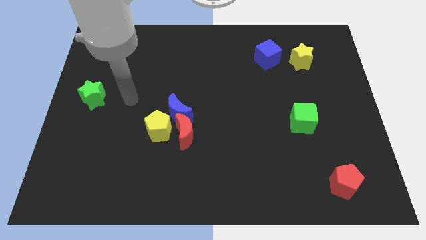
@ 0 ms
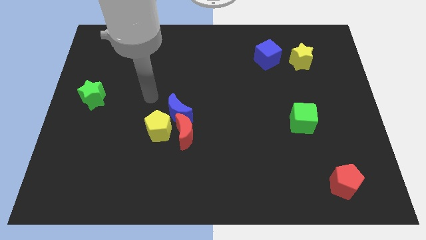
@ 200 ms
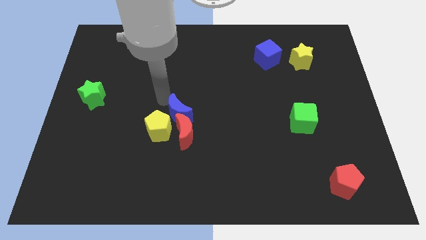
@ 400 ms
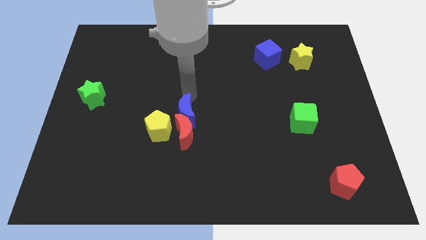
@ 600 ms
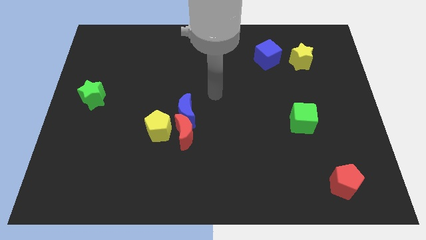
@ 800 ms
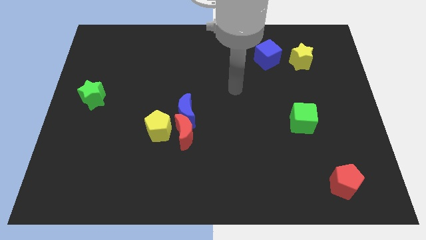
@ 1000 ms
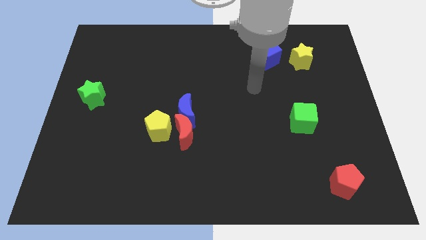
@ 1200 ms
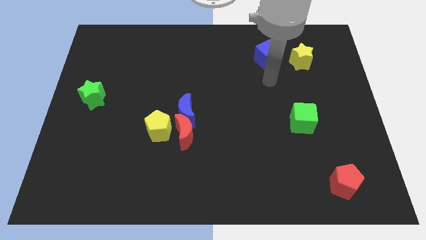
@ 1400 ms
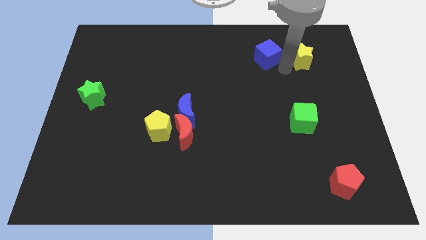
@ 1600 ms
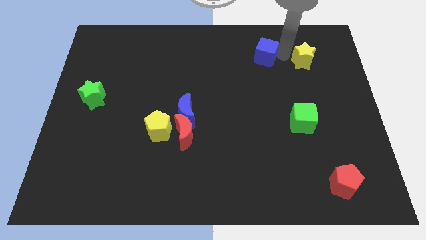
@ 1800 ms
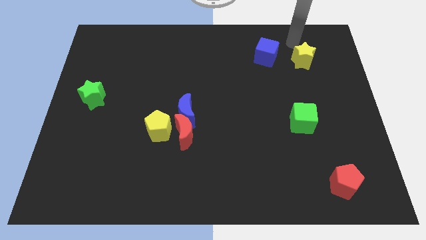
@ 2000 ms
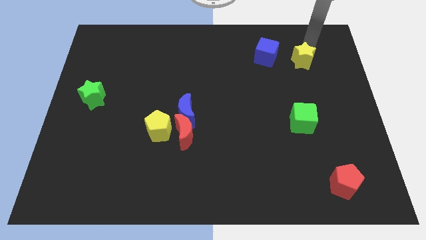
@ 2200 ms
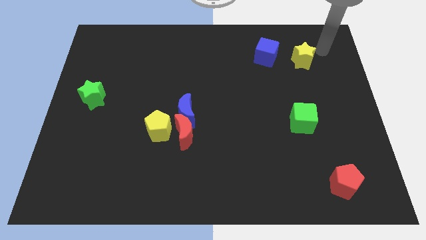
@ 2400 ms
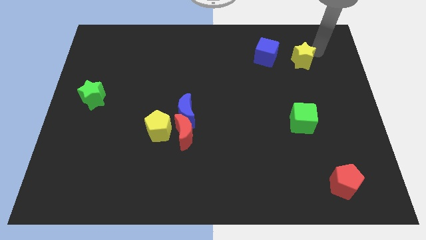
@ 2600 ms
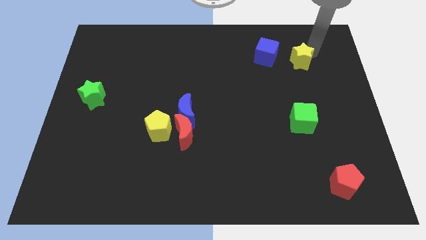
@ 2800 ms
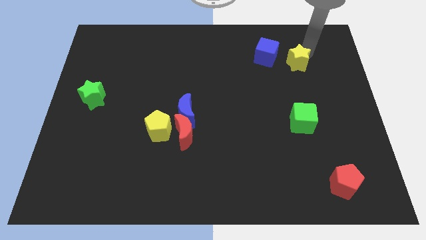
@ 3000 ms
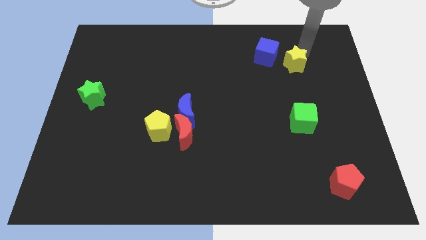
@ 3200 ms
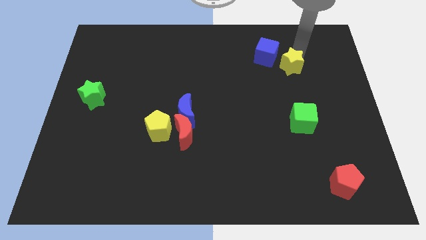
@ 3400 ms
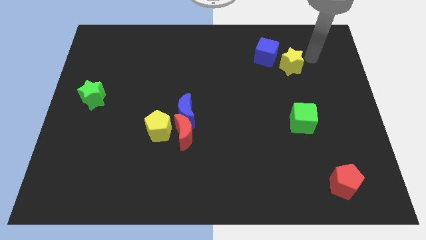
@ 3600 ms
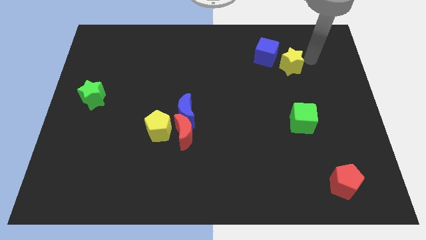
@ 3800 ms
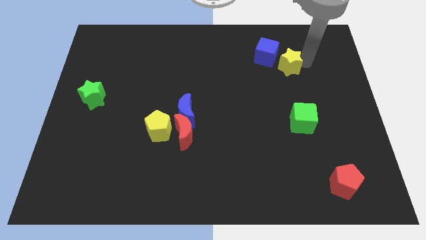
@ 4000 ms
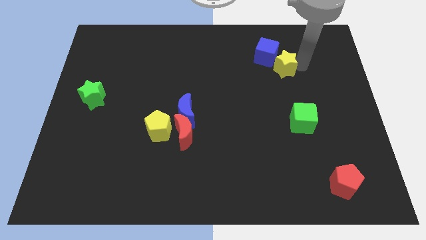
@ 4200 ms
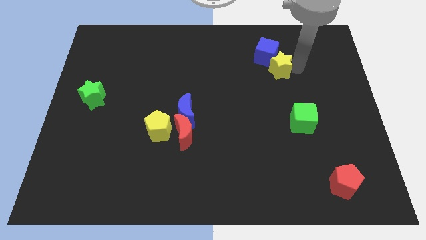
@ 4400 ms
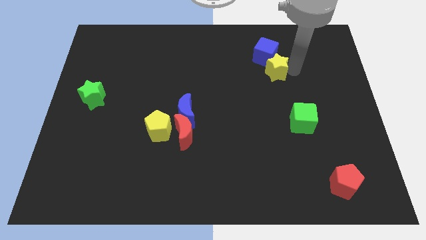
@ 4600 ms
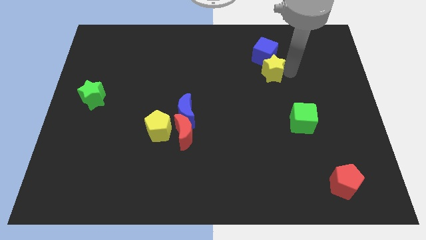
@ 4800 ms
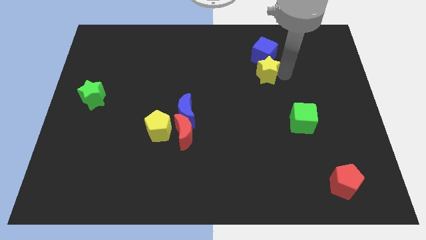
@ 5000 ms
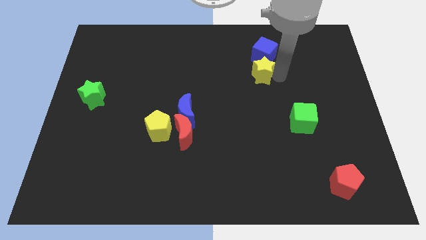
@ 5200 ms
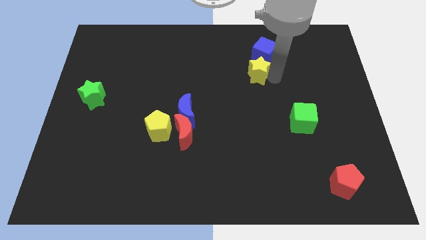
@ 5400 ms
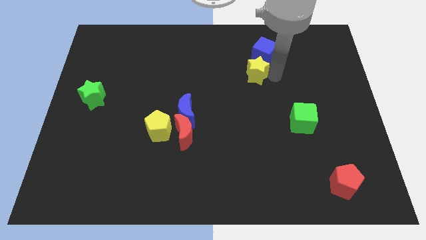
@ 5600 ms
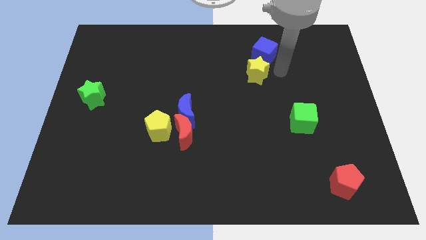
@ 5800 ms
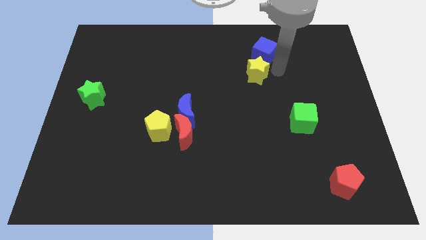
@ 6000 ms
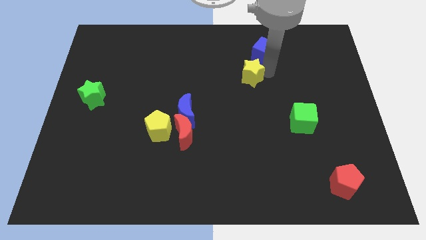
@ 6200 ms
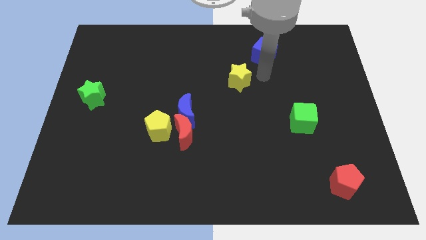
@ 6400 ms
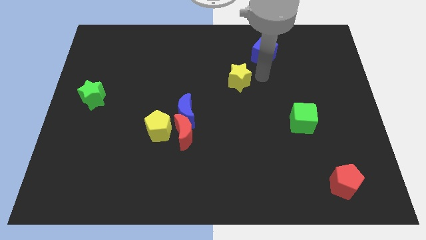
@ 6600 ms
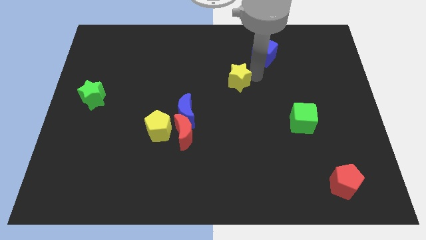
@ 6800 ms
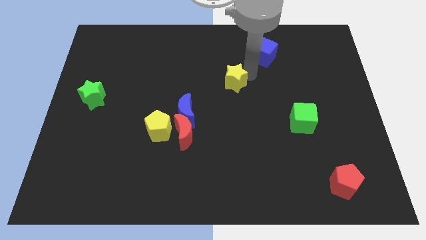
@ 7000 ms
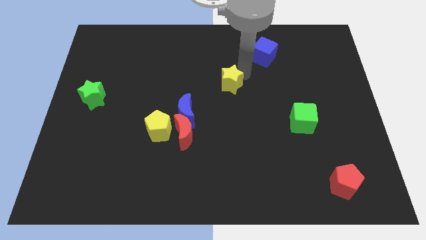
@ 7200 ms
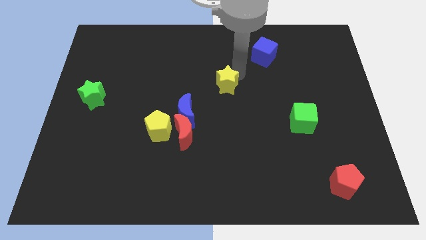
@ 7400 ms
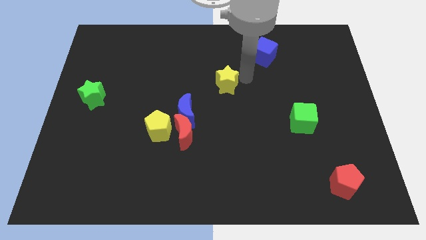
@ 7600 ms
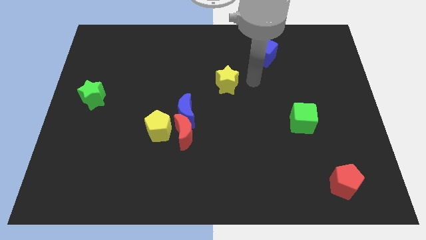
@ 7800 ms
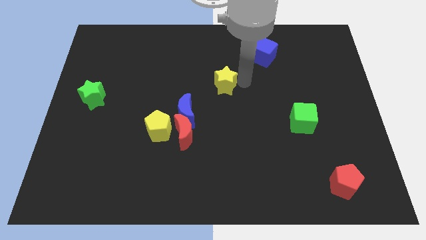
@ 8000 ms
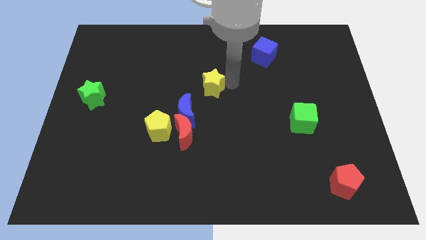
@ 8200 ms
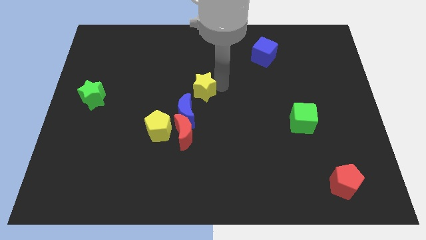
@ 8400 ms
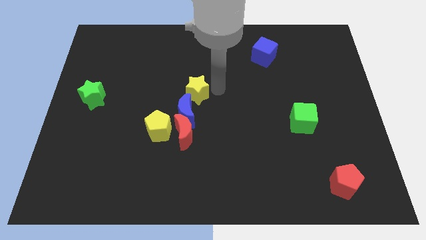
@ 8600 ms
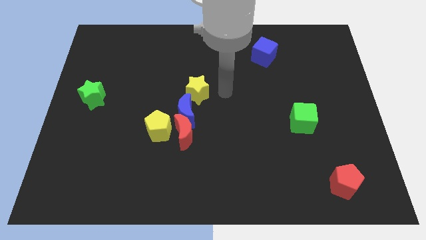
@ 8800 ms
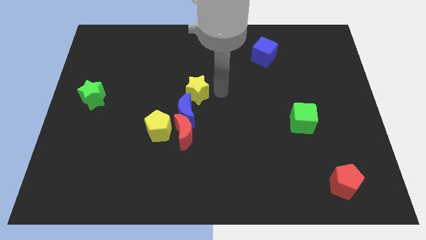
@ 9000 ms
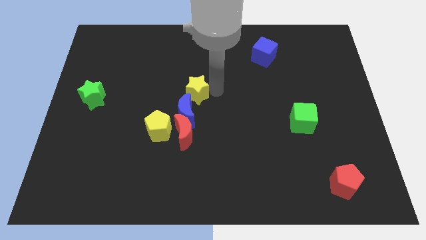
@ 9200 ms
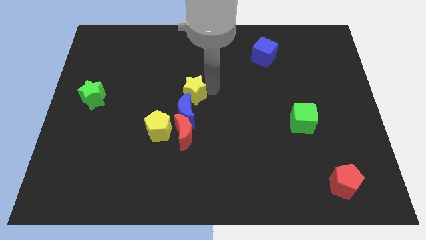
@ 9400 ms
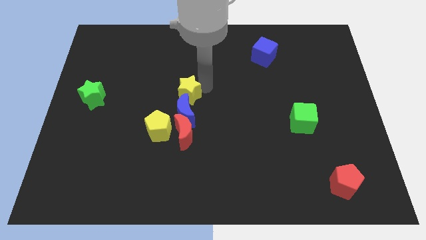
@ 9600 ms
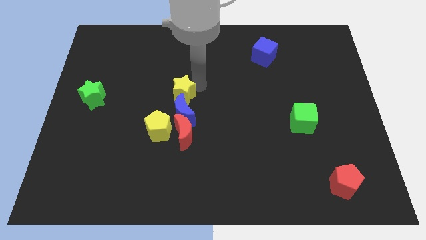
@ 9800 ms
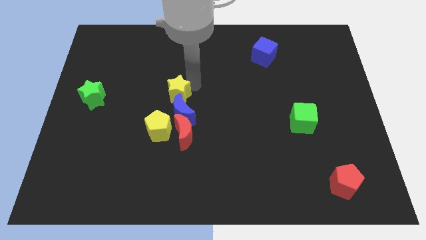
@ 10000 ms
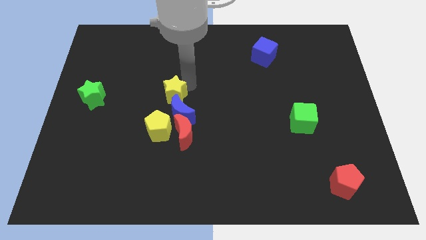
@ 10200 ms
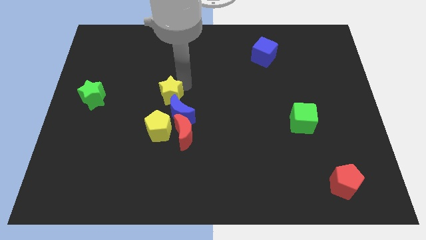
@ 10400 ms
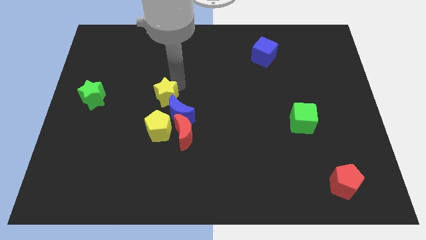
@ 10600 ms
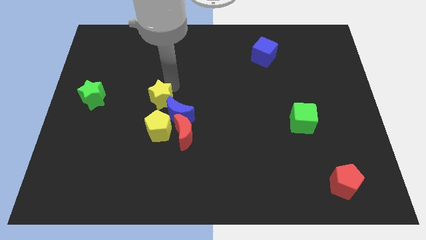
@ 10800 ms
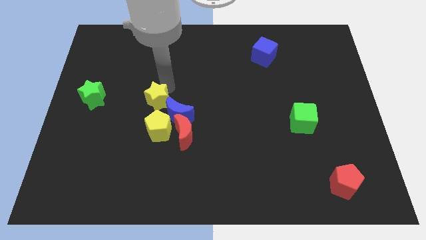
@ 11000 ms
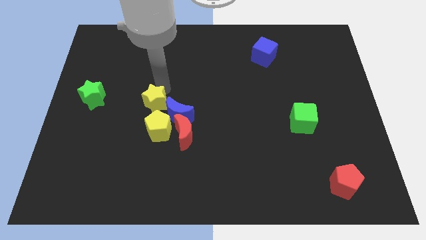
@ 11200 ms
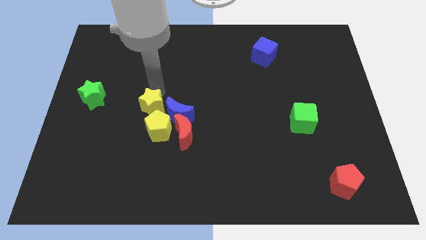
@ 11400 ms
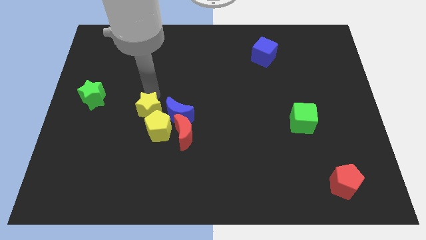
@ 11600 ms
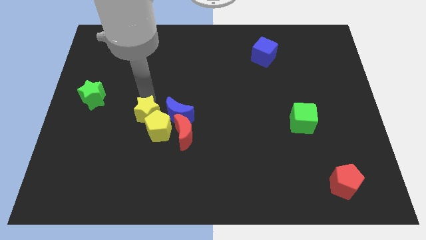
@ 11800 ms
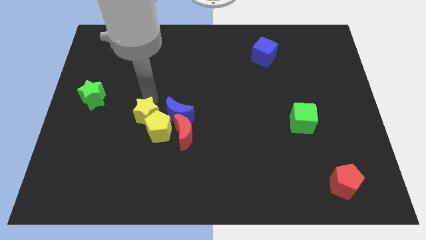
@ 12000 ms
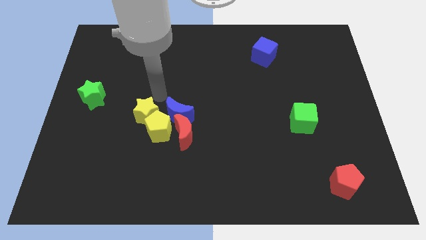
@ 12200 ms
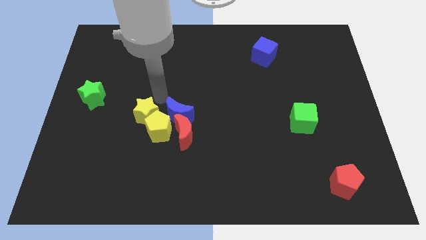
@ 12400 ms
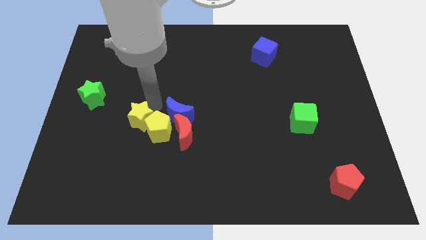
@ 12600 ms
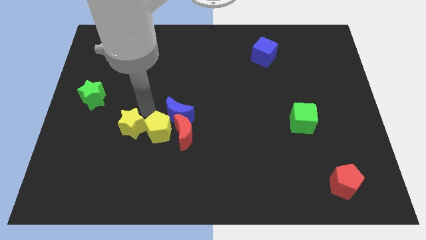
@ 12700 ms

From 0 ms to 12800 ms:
put the yellow star to the bottom left side of the yellow pentagon

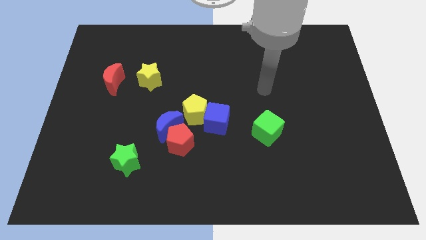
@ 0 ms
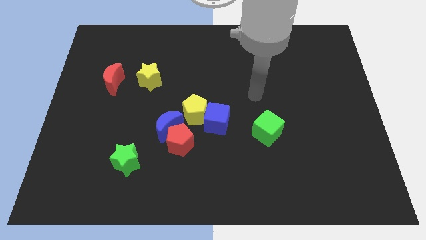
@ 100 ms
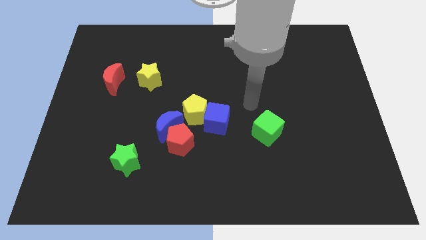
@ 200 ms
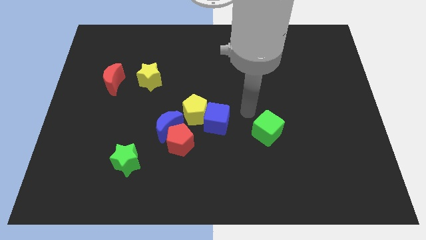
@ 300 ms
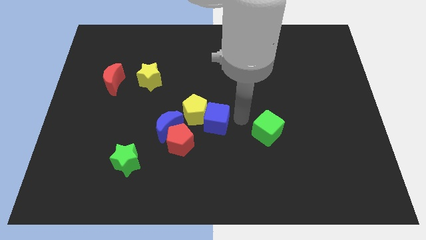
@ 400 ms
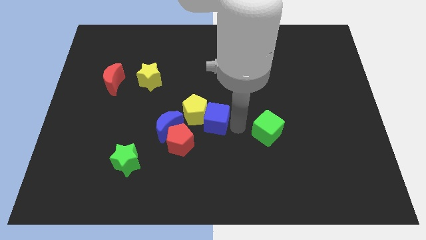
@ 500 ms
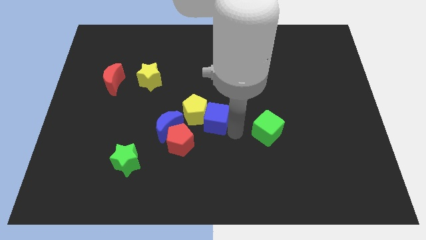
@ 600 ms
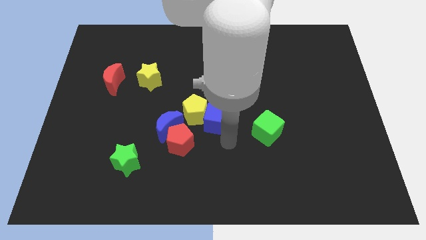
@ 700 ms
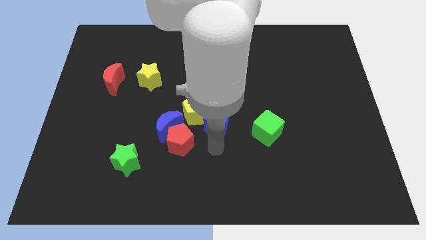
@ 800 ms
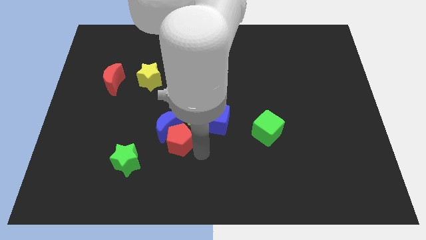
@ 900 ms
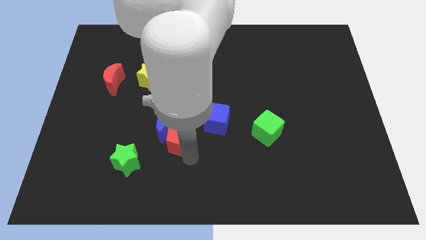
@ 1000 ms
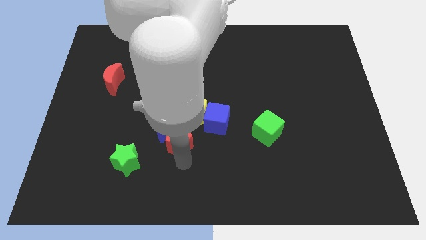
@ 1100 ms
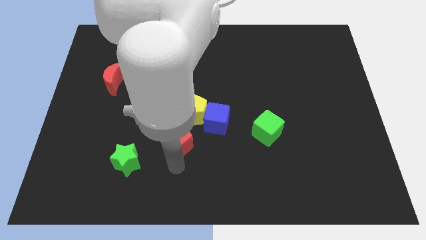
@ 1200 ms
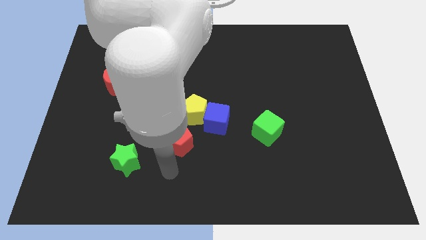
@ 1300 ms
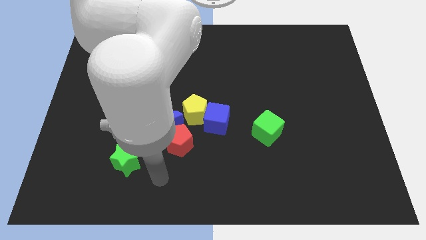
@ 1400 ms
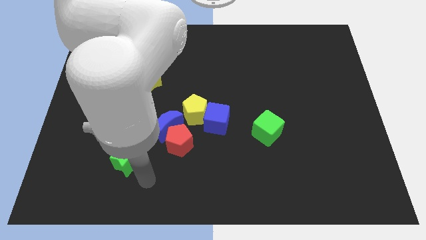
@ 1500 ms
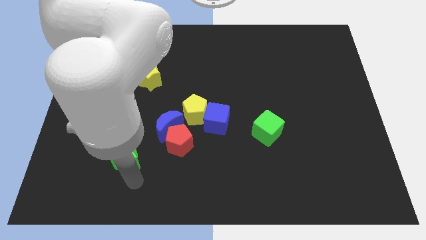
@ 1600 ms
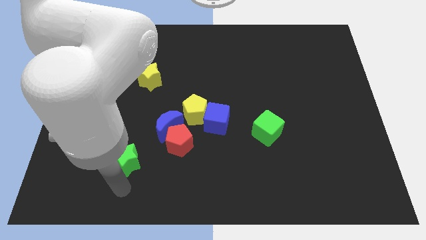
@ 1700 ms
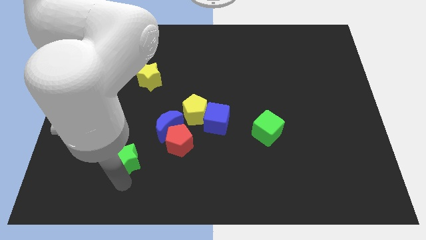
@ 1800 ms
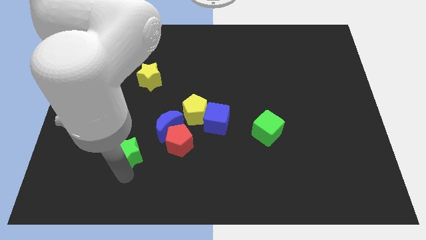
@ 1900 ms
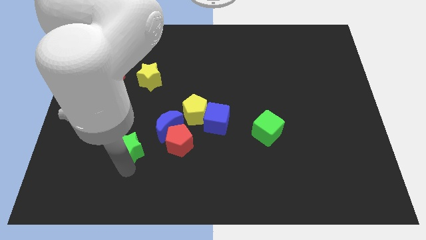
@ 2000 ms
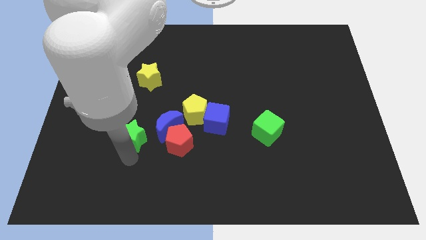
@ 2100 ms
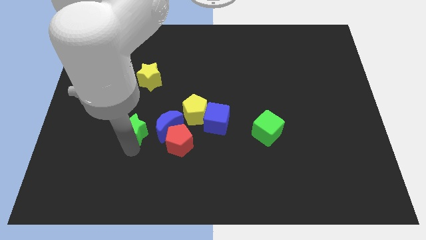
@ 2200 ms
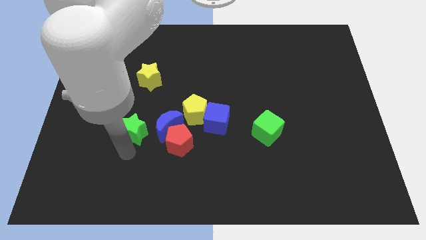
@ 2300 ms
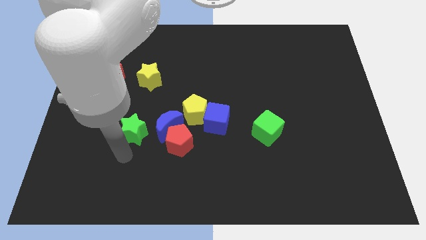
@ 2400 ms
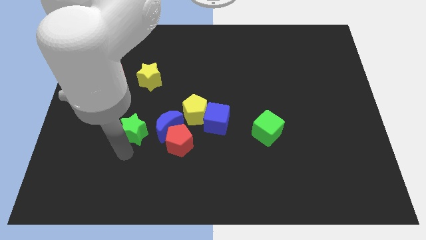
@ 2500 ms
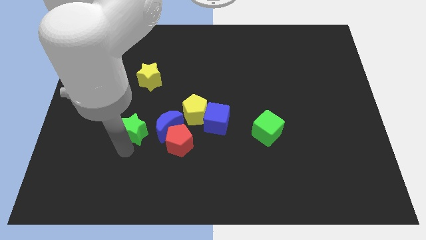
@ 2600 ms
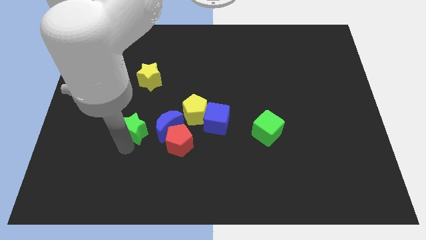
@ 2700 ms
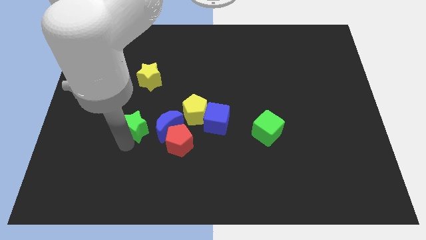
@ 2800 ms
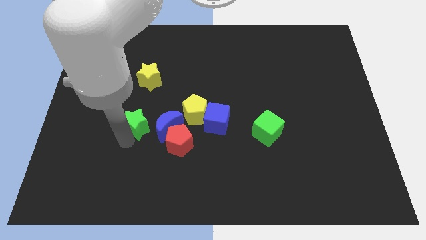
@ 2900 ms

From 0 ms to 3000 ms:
put the green star to the top left side of the blue moon
